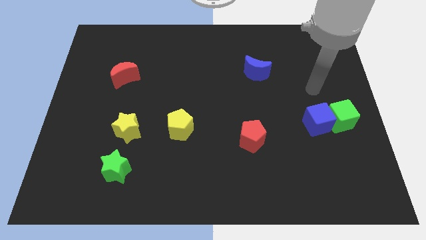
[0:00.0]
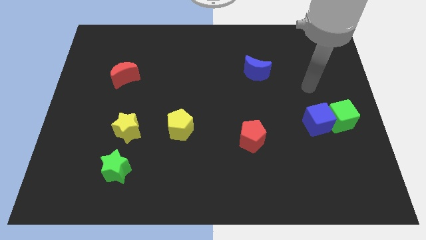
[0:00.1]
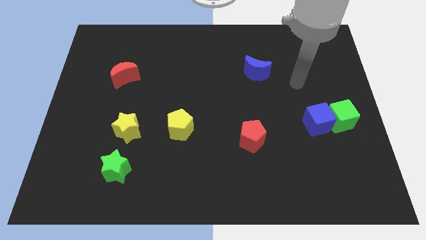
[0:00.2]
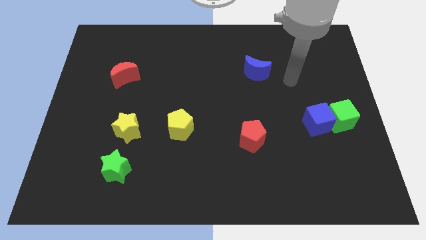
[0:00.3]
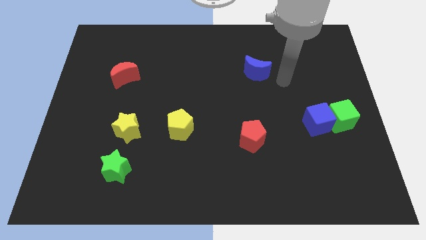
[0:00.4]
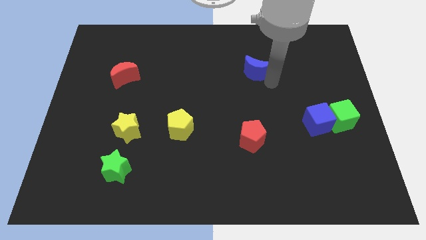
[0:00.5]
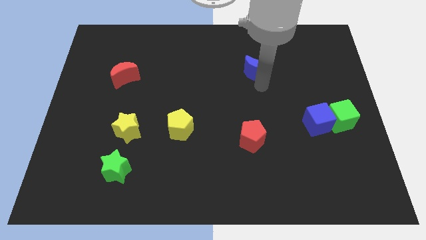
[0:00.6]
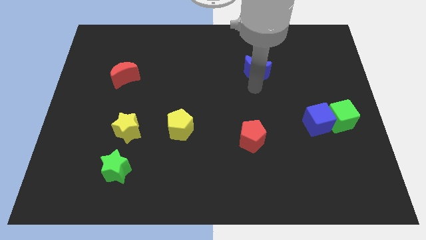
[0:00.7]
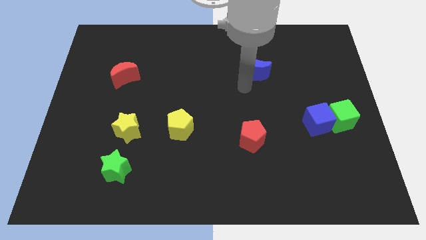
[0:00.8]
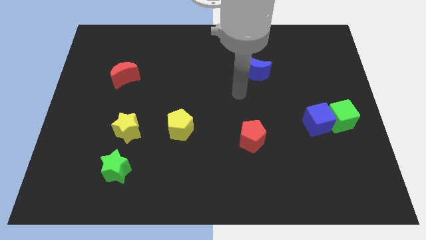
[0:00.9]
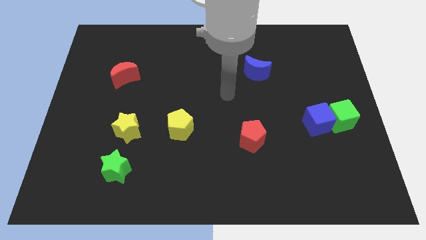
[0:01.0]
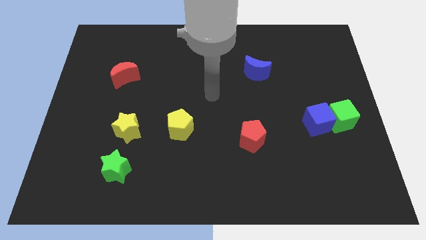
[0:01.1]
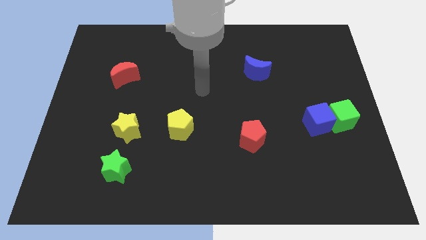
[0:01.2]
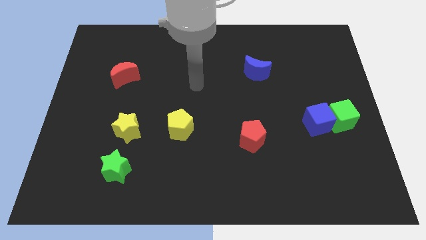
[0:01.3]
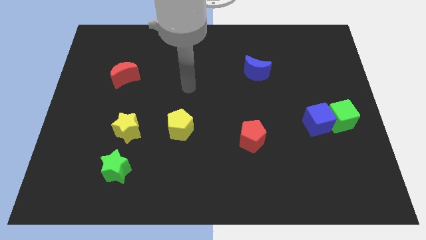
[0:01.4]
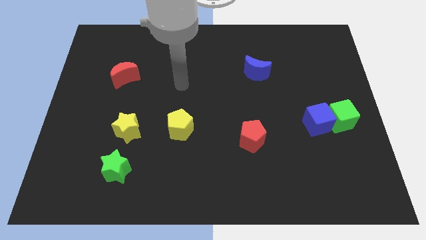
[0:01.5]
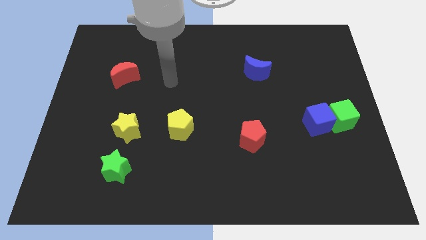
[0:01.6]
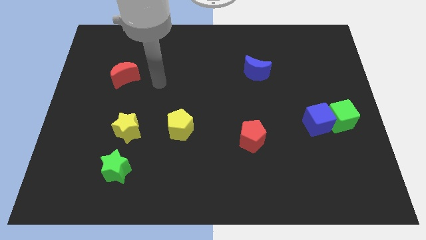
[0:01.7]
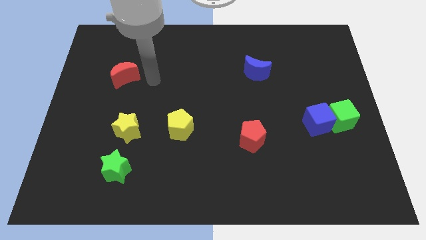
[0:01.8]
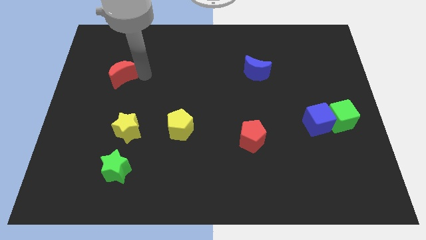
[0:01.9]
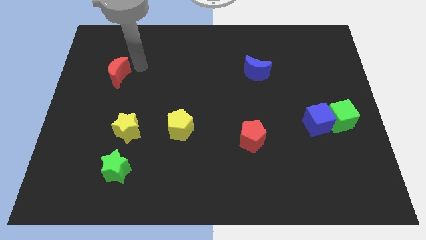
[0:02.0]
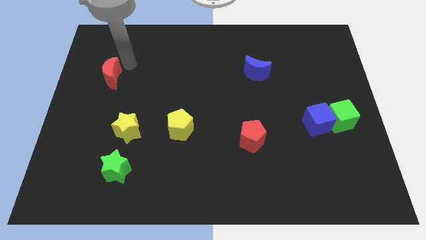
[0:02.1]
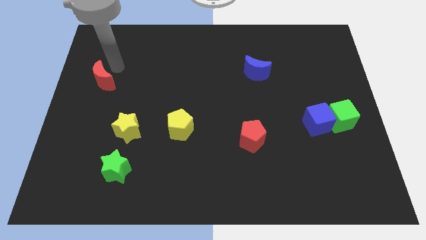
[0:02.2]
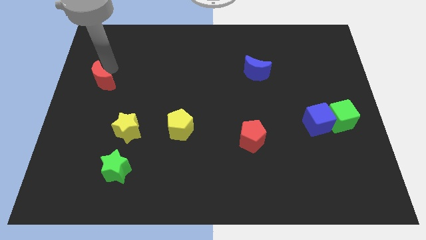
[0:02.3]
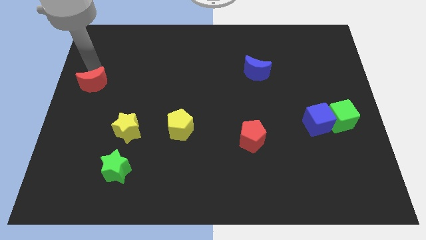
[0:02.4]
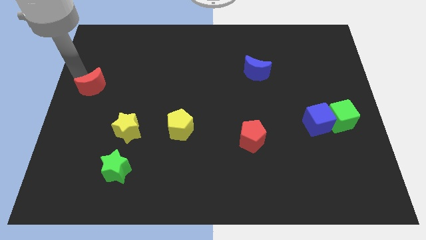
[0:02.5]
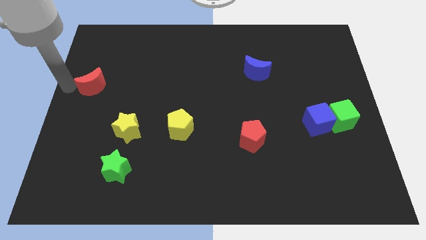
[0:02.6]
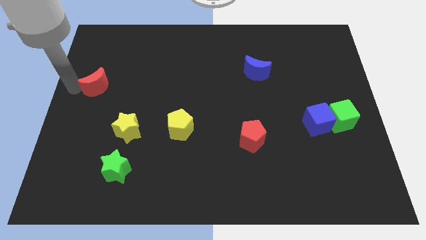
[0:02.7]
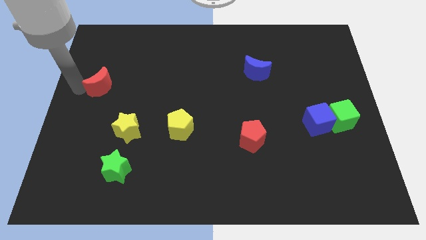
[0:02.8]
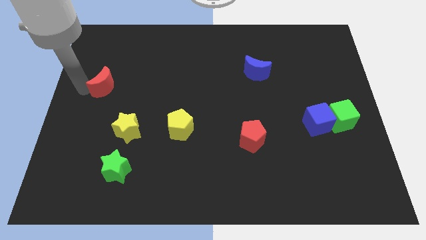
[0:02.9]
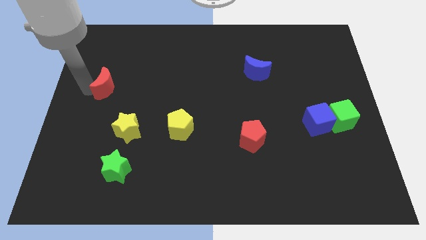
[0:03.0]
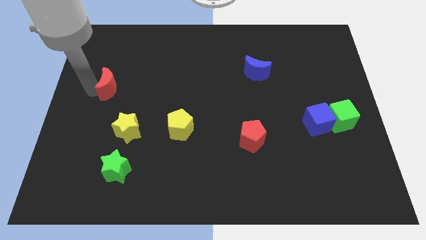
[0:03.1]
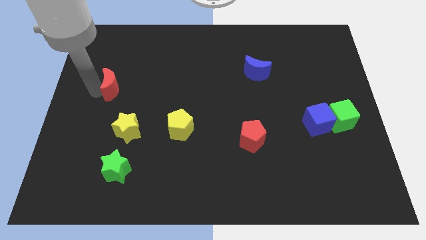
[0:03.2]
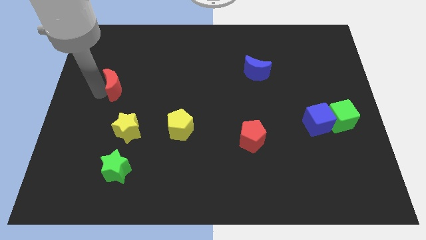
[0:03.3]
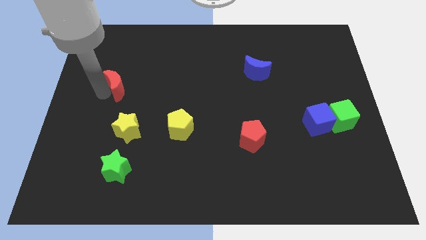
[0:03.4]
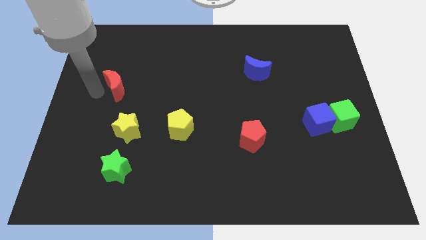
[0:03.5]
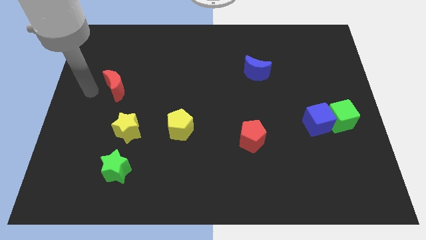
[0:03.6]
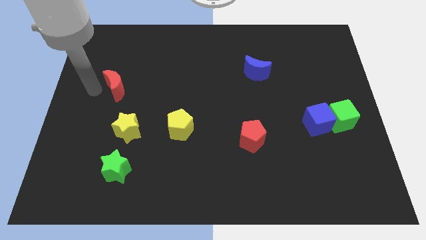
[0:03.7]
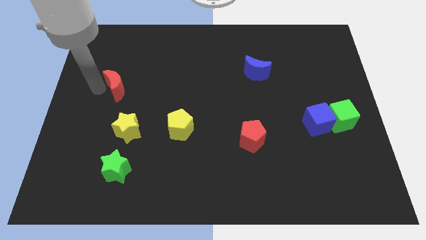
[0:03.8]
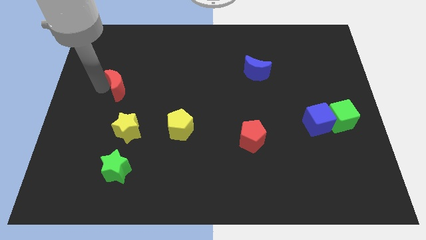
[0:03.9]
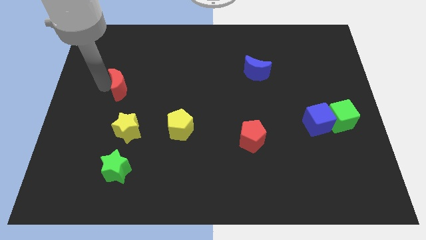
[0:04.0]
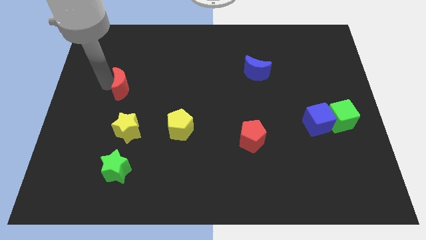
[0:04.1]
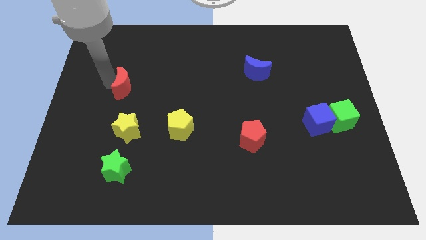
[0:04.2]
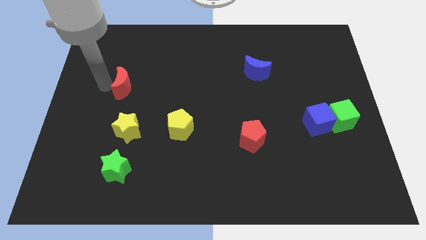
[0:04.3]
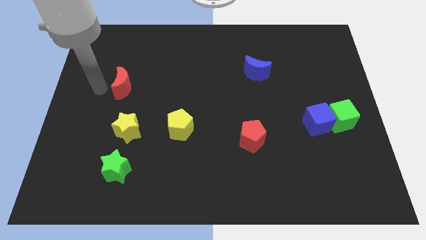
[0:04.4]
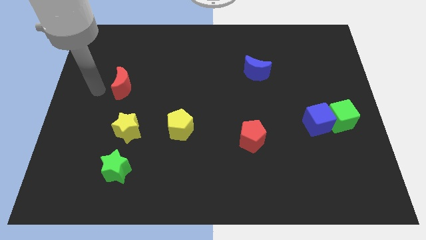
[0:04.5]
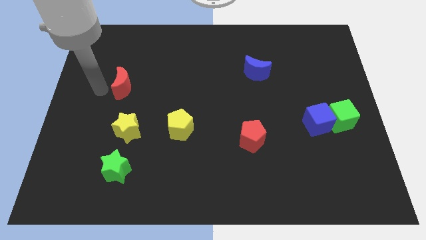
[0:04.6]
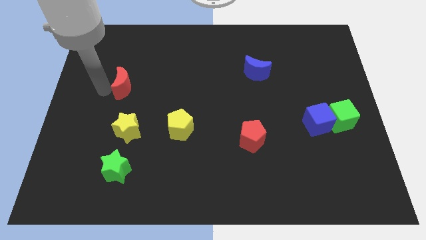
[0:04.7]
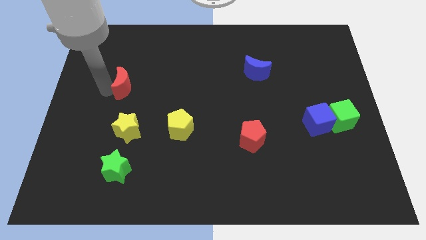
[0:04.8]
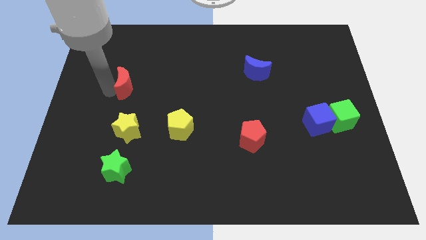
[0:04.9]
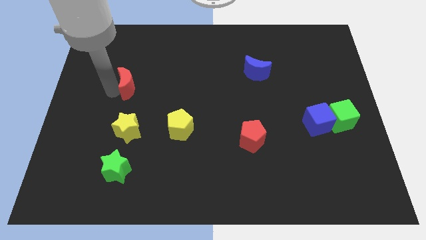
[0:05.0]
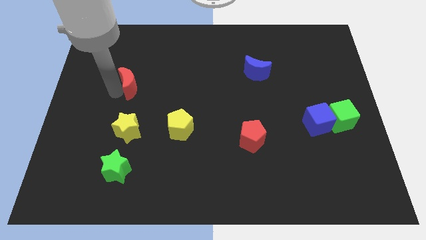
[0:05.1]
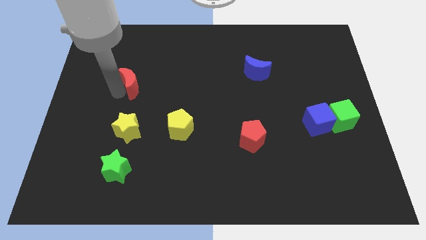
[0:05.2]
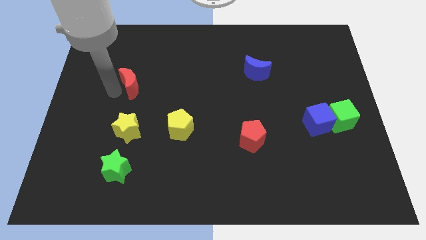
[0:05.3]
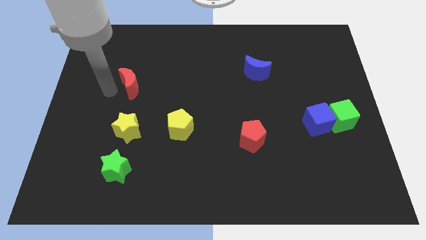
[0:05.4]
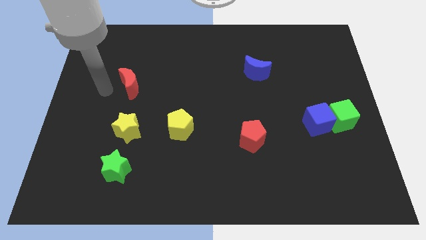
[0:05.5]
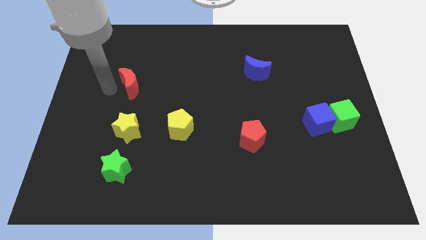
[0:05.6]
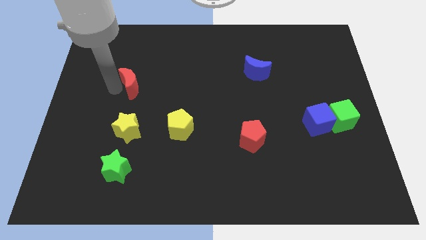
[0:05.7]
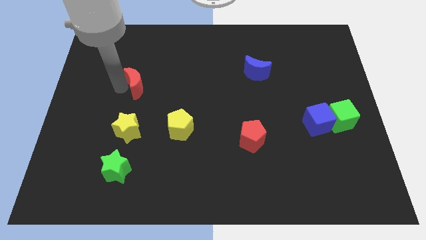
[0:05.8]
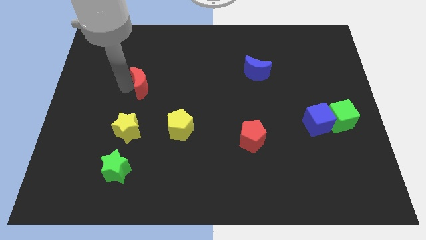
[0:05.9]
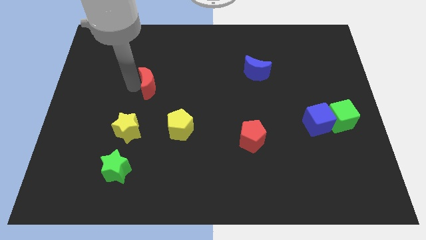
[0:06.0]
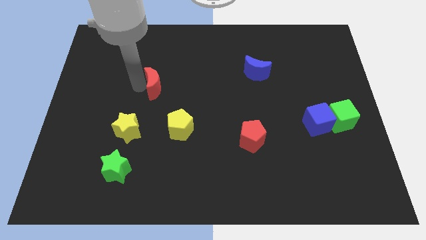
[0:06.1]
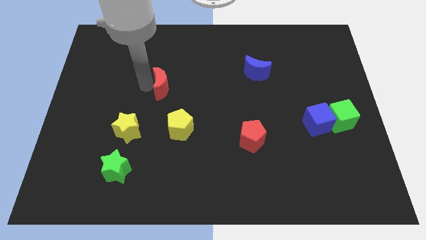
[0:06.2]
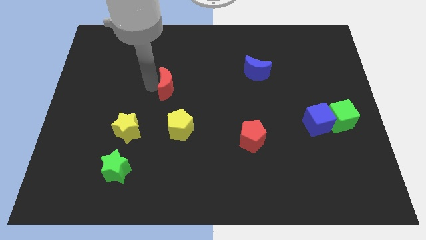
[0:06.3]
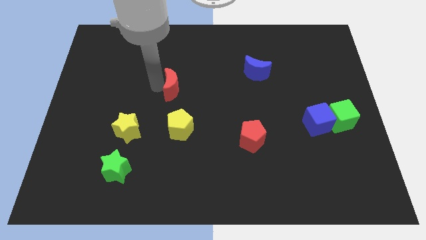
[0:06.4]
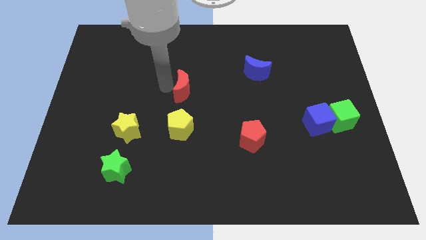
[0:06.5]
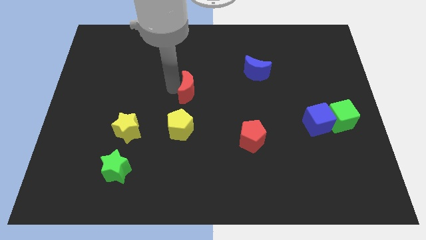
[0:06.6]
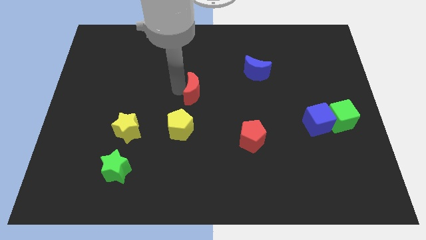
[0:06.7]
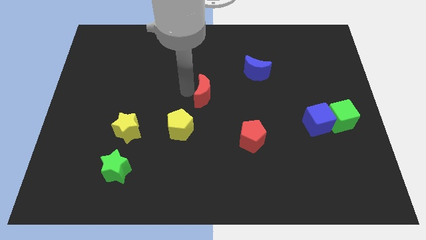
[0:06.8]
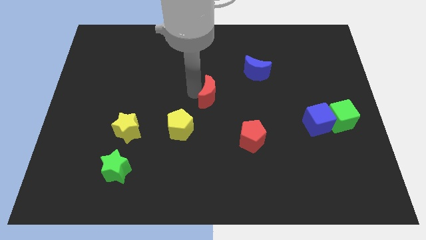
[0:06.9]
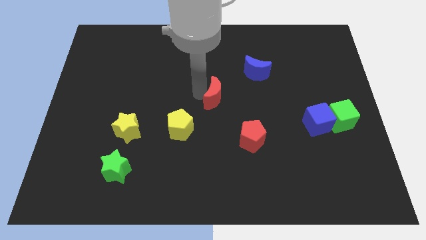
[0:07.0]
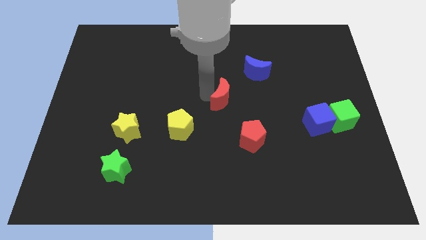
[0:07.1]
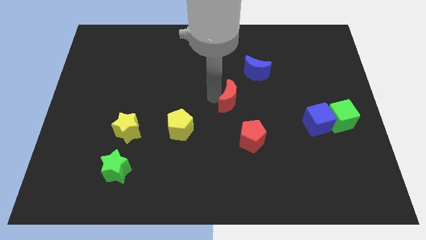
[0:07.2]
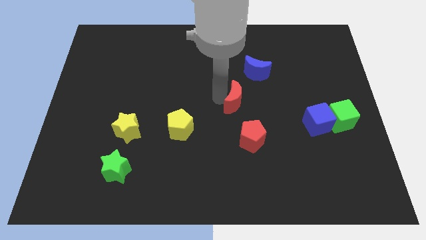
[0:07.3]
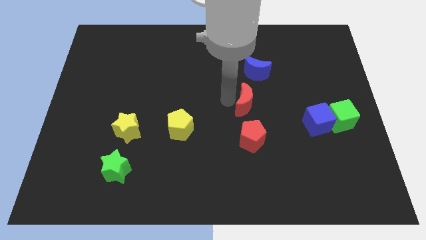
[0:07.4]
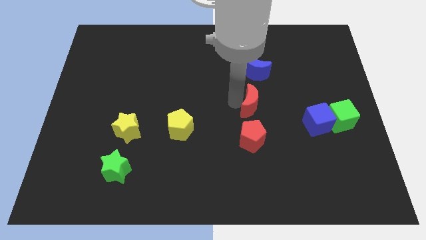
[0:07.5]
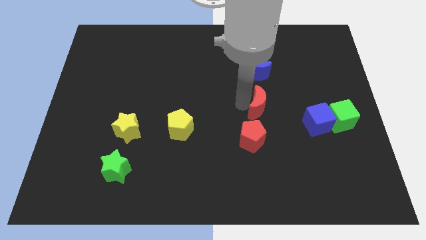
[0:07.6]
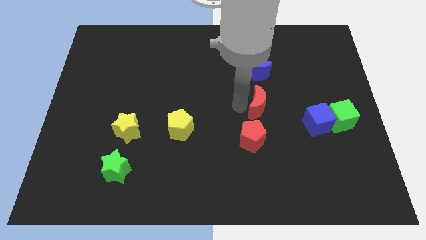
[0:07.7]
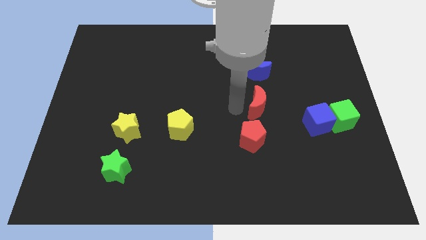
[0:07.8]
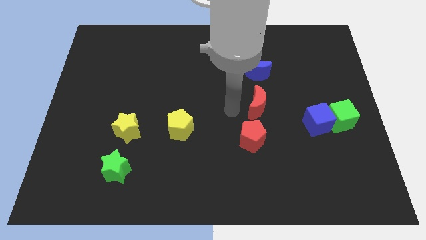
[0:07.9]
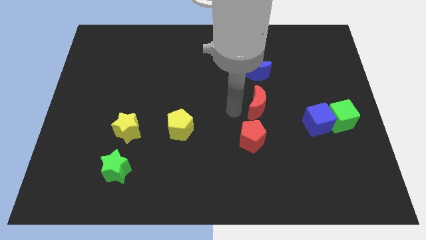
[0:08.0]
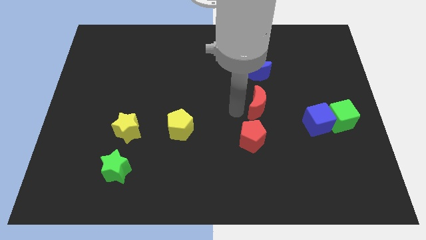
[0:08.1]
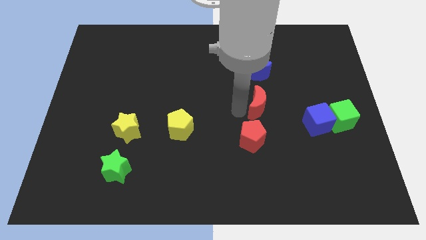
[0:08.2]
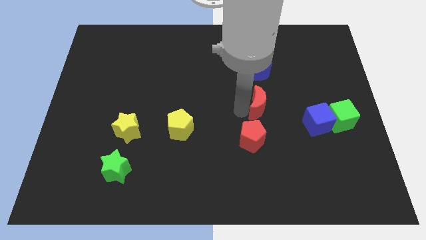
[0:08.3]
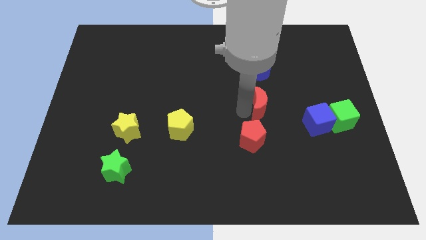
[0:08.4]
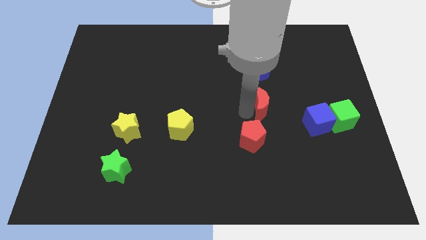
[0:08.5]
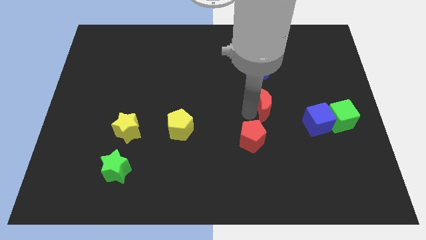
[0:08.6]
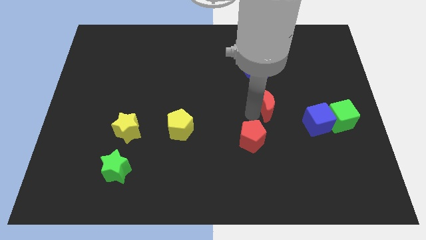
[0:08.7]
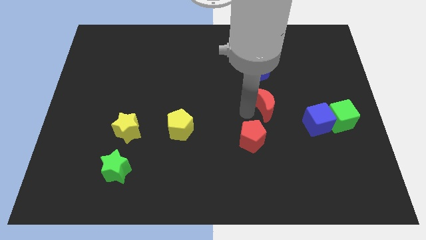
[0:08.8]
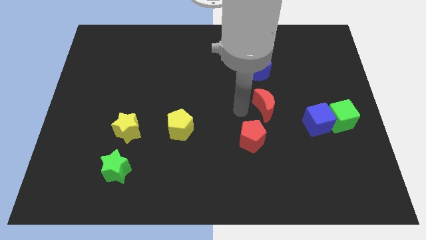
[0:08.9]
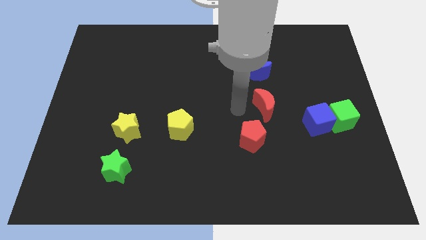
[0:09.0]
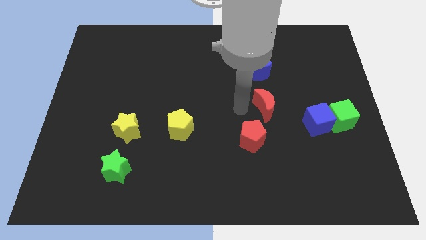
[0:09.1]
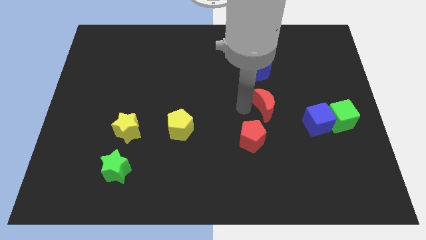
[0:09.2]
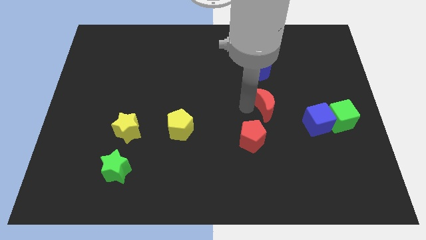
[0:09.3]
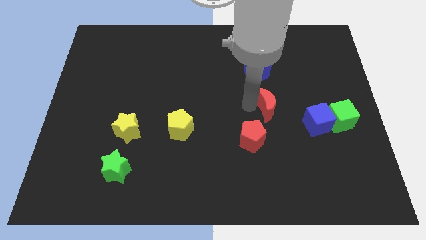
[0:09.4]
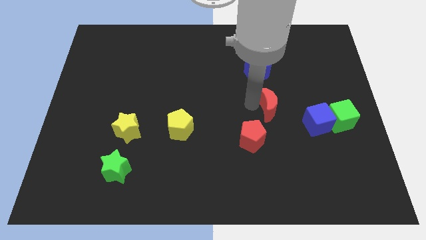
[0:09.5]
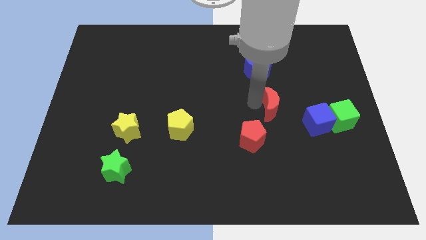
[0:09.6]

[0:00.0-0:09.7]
slide the red moon to the top left side of the blue cube
